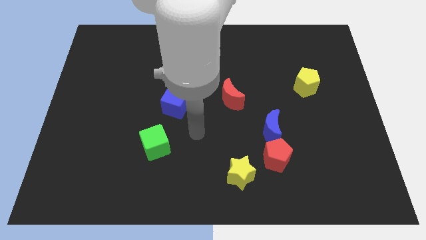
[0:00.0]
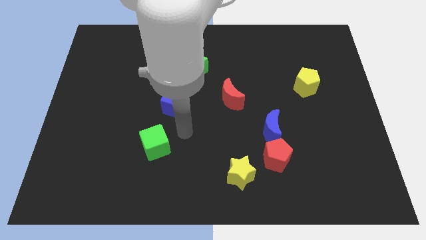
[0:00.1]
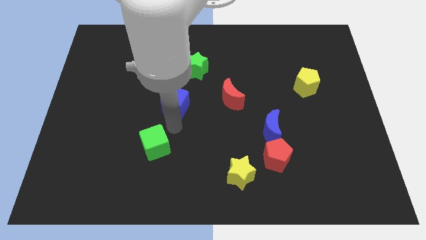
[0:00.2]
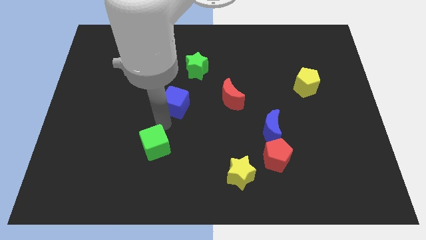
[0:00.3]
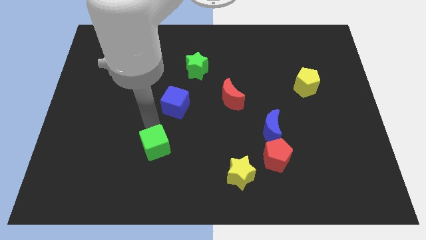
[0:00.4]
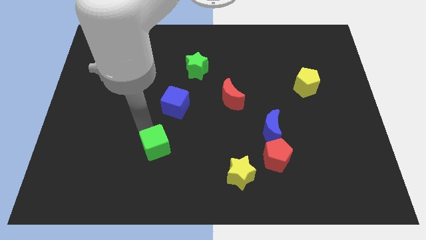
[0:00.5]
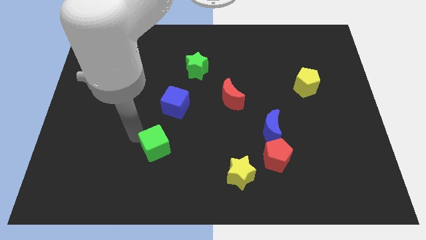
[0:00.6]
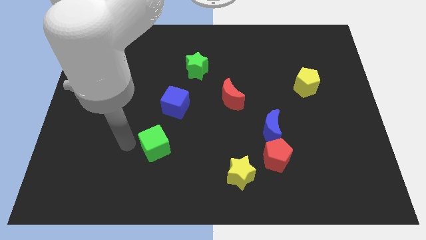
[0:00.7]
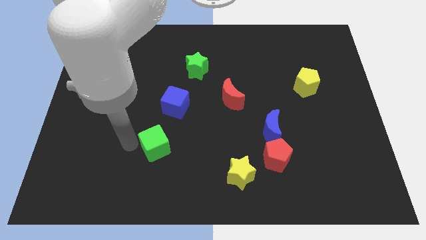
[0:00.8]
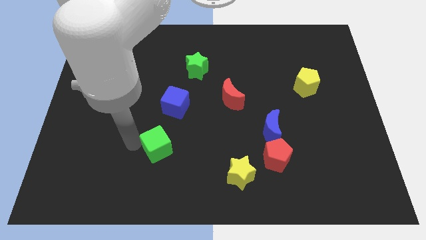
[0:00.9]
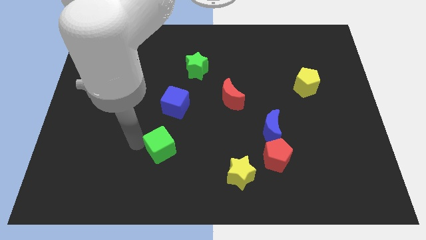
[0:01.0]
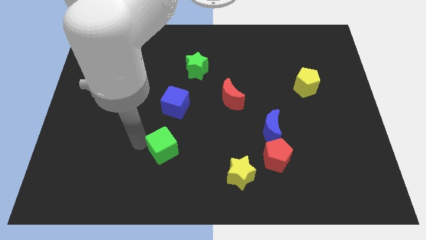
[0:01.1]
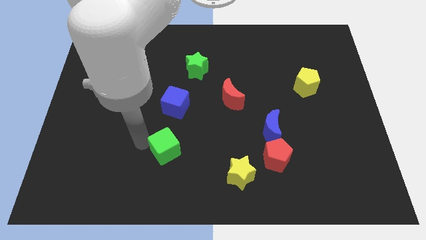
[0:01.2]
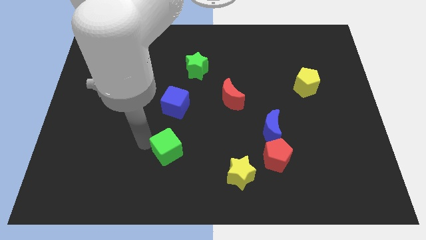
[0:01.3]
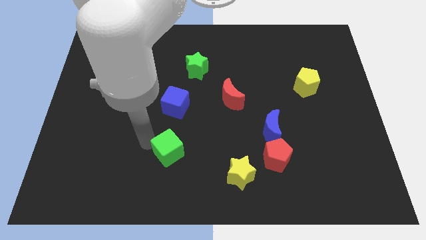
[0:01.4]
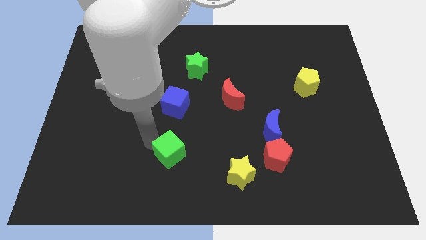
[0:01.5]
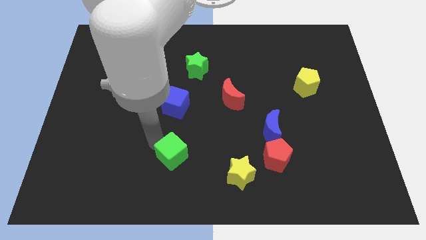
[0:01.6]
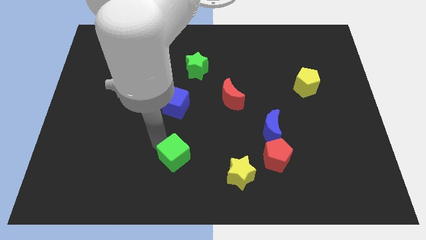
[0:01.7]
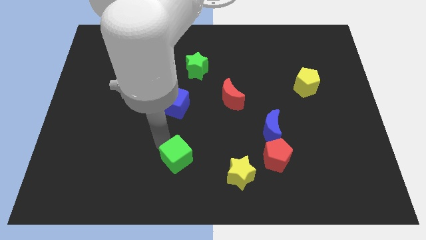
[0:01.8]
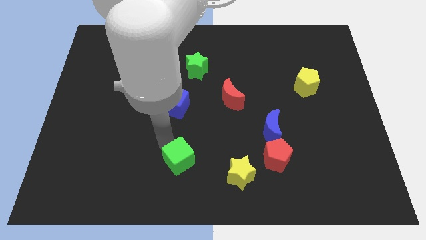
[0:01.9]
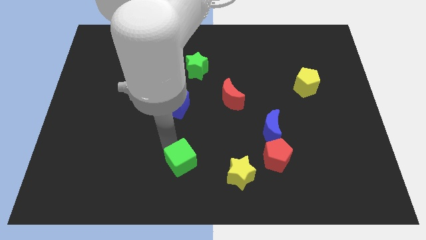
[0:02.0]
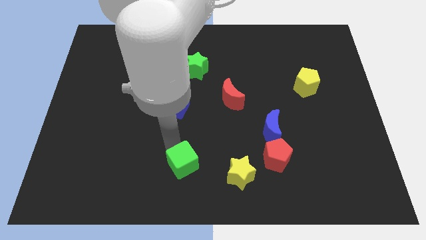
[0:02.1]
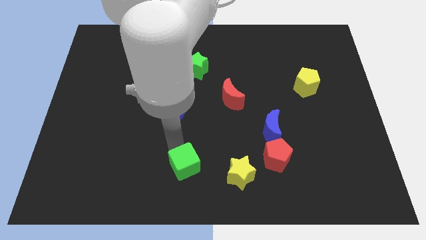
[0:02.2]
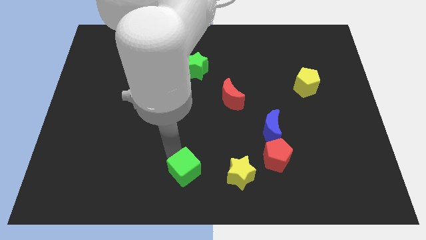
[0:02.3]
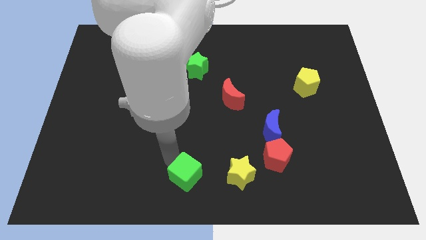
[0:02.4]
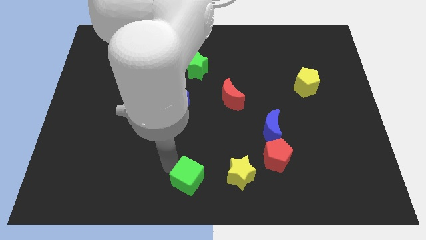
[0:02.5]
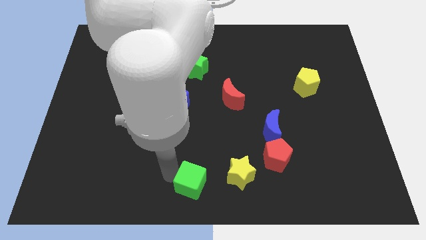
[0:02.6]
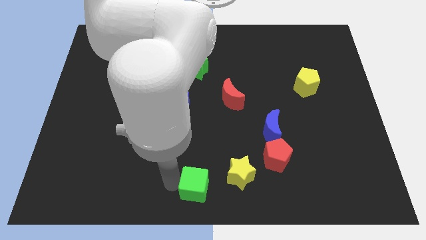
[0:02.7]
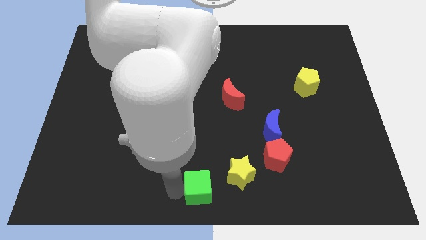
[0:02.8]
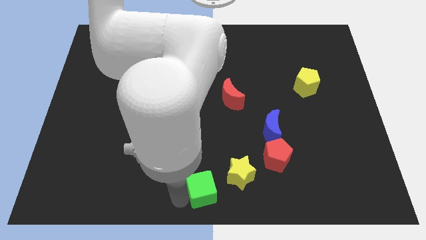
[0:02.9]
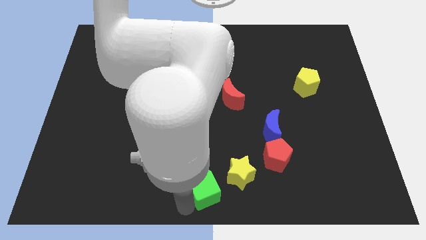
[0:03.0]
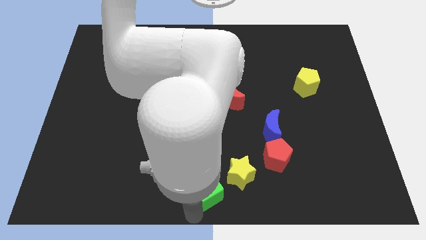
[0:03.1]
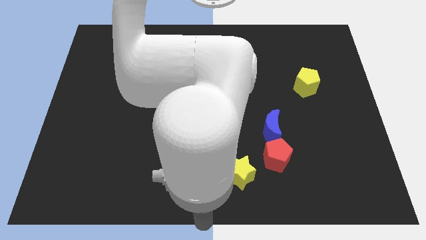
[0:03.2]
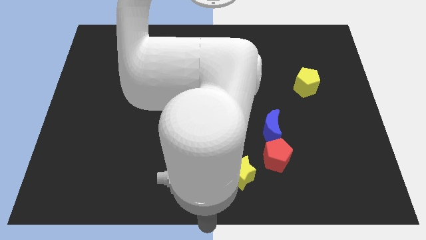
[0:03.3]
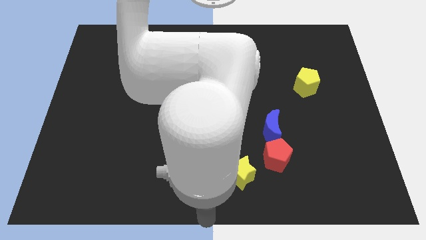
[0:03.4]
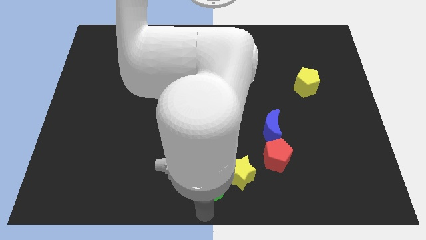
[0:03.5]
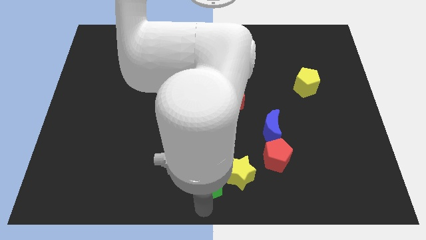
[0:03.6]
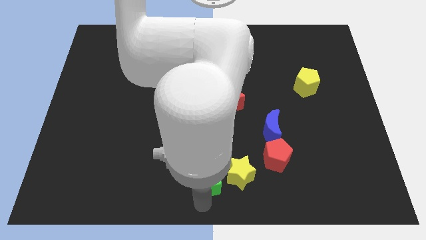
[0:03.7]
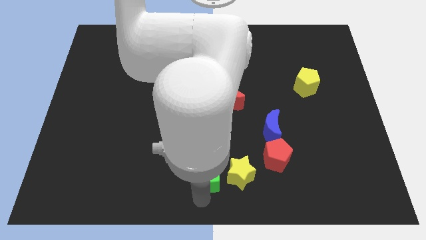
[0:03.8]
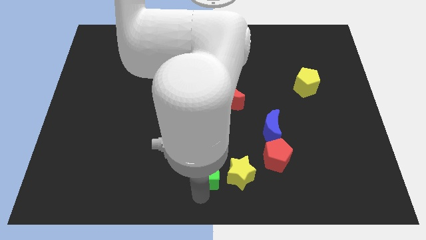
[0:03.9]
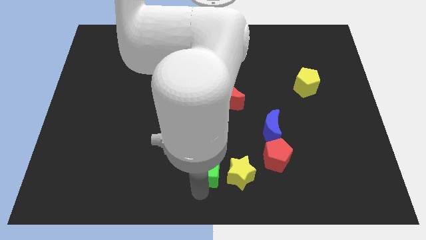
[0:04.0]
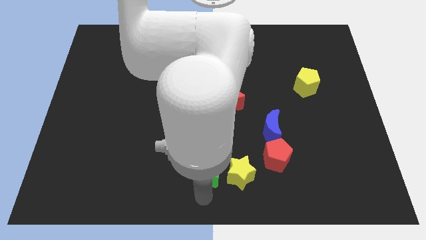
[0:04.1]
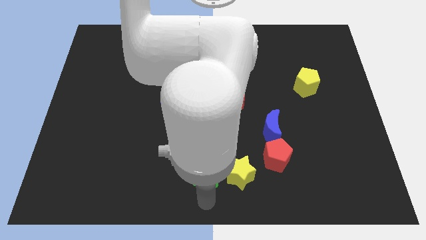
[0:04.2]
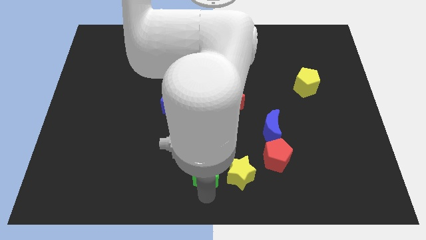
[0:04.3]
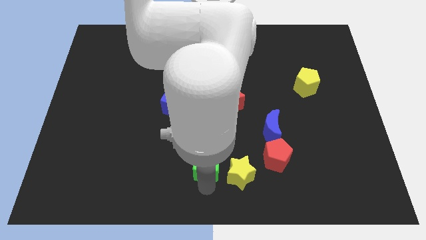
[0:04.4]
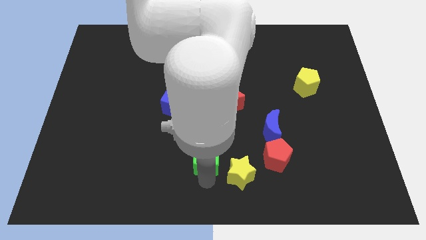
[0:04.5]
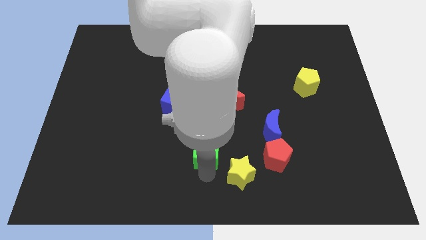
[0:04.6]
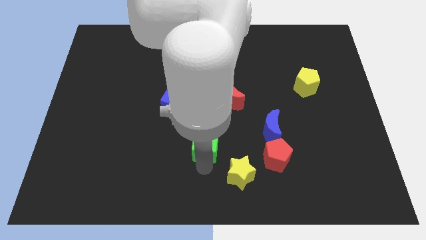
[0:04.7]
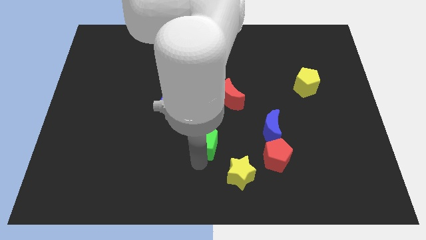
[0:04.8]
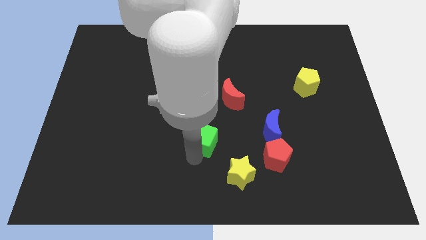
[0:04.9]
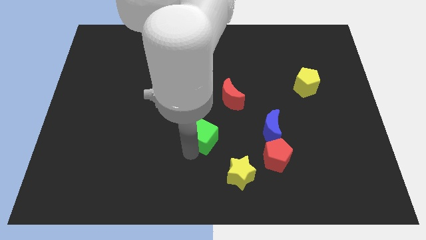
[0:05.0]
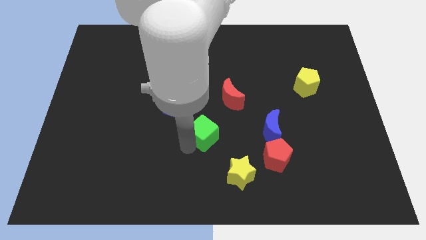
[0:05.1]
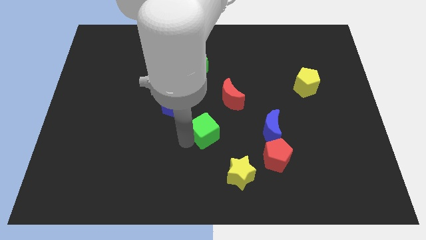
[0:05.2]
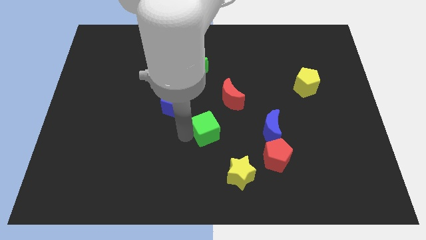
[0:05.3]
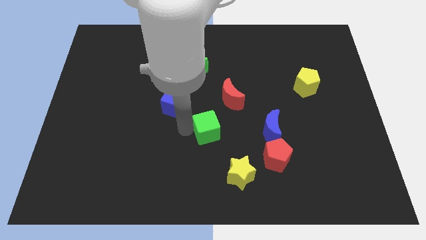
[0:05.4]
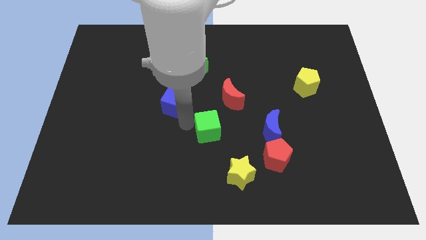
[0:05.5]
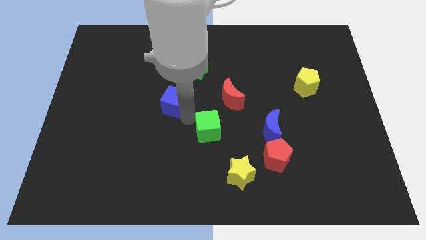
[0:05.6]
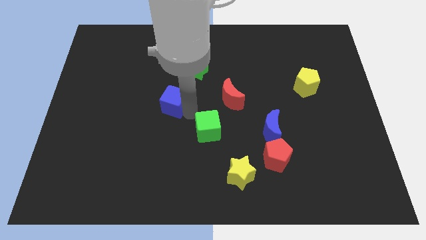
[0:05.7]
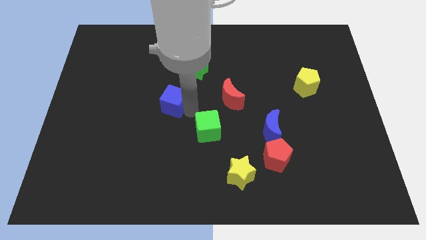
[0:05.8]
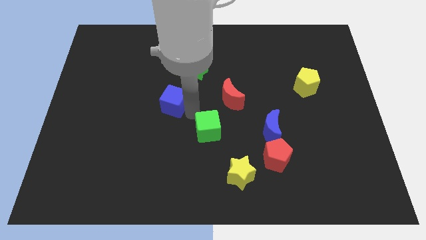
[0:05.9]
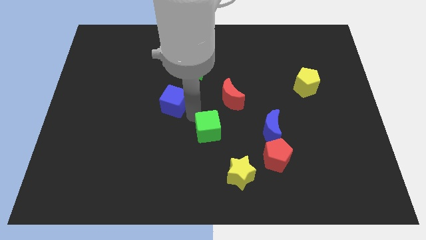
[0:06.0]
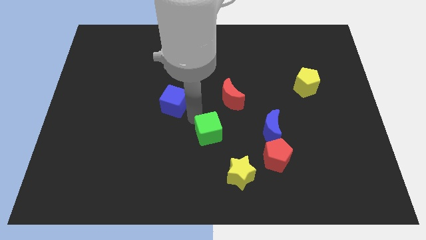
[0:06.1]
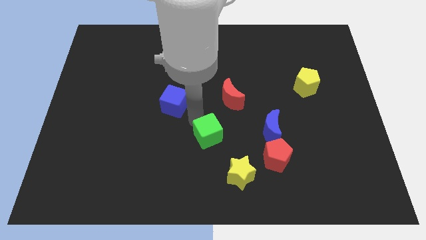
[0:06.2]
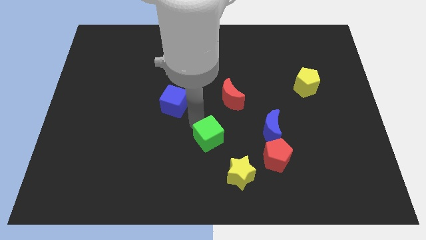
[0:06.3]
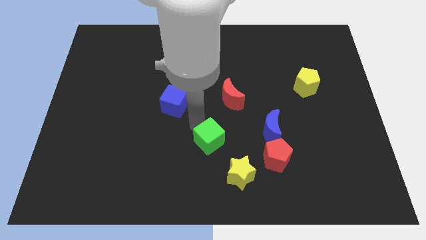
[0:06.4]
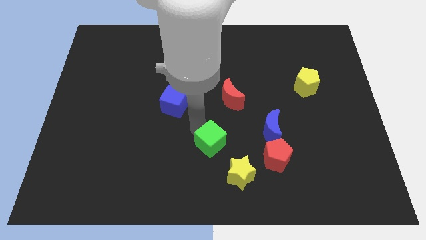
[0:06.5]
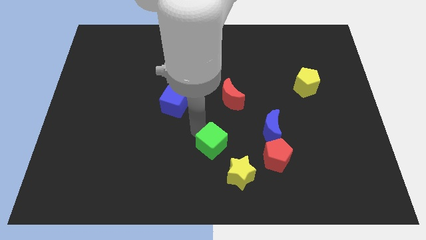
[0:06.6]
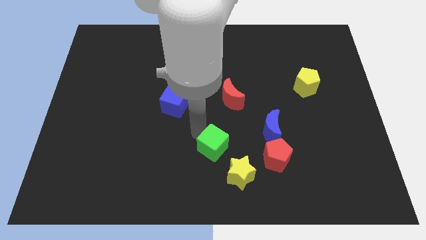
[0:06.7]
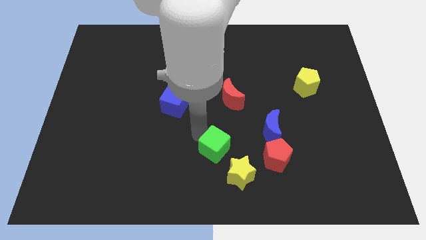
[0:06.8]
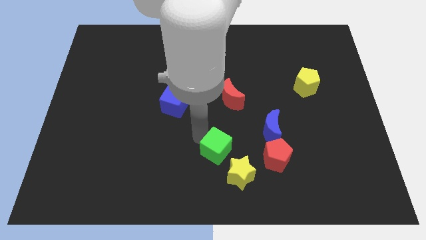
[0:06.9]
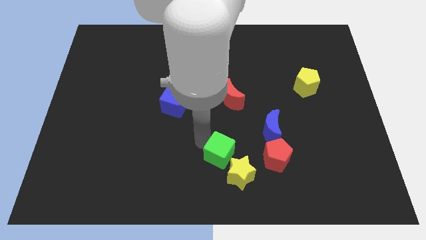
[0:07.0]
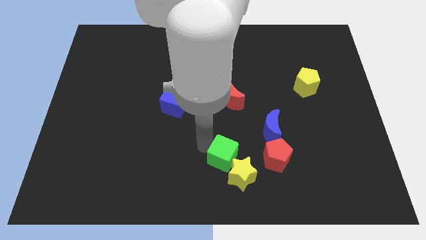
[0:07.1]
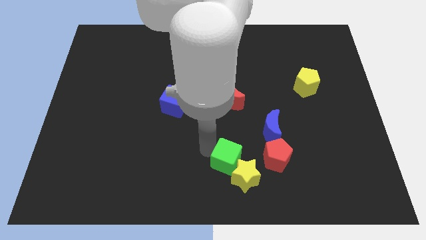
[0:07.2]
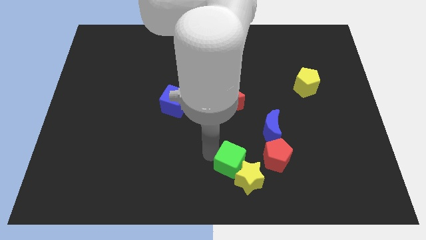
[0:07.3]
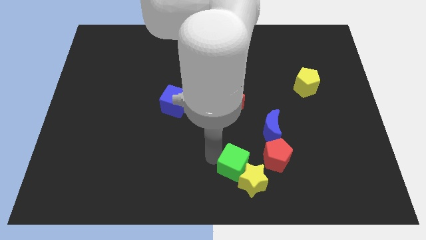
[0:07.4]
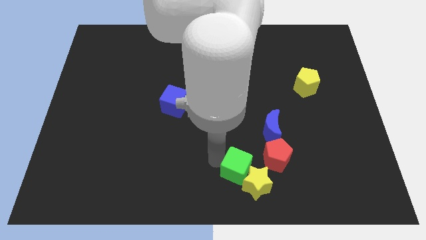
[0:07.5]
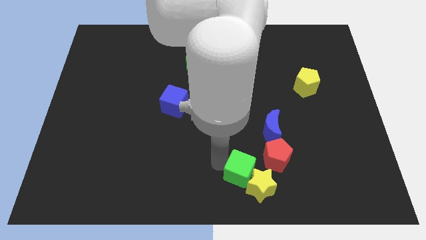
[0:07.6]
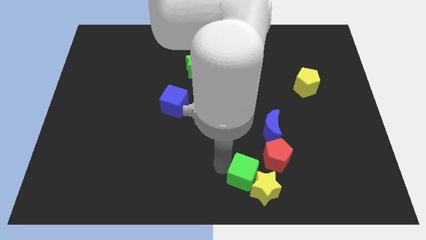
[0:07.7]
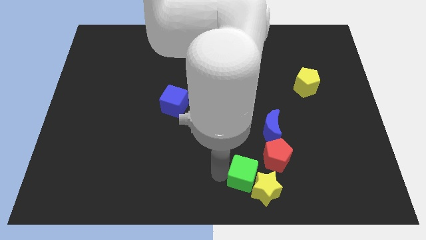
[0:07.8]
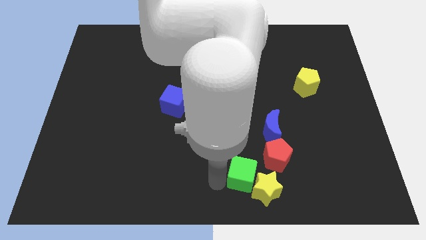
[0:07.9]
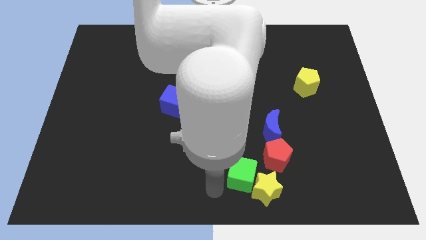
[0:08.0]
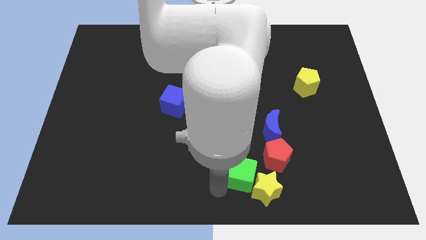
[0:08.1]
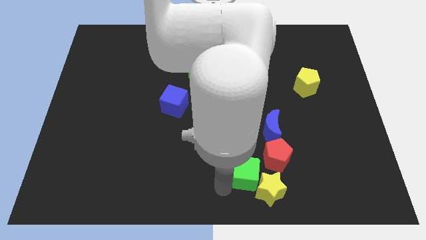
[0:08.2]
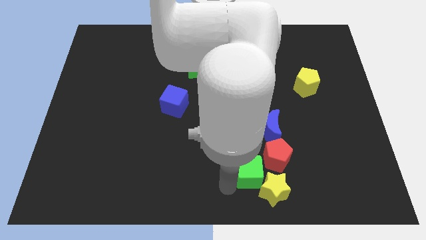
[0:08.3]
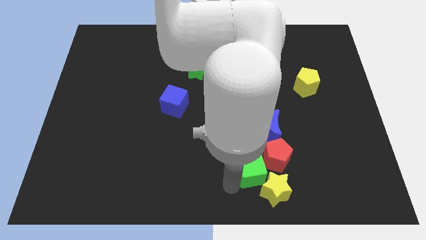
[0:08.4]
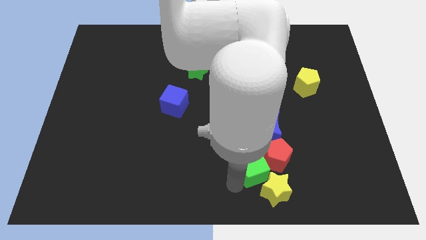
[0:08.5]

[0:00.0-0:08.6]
push the green cube close to the red pentagon
